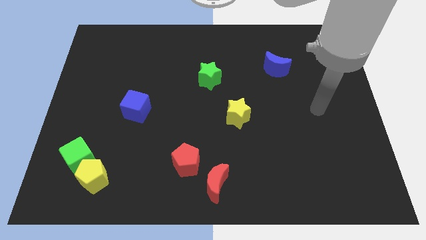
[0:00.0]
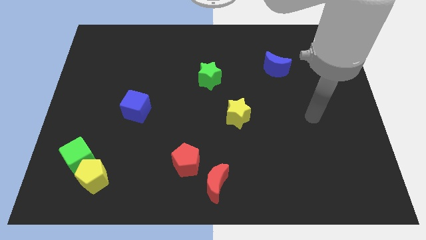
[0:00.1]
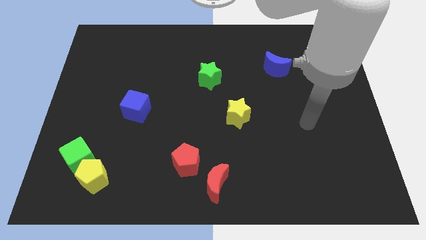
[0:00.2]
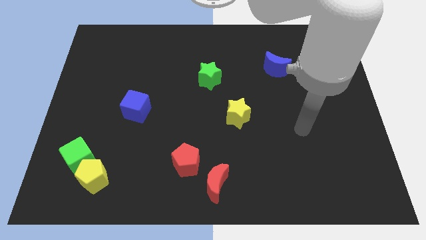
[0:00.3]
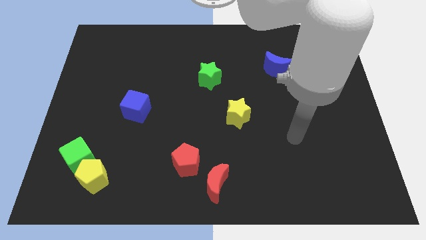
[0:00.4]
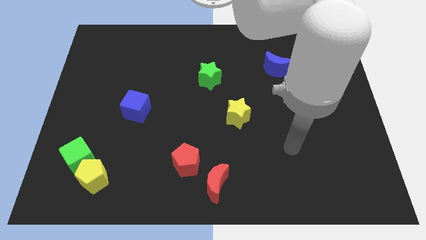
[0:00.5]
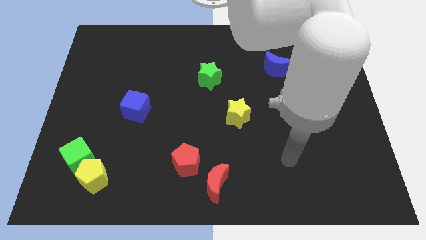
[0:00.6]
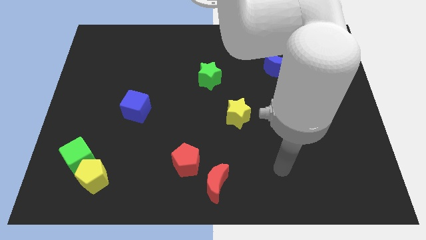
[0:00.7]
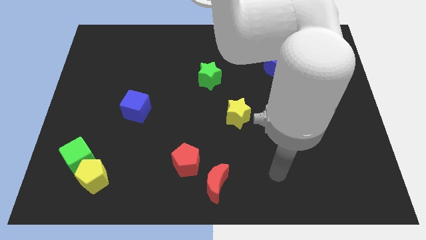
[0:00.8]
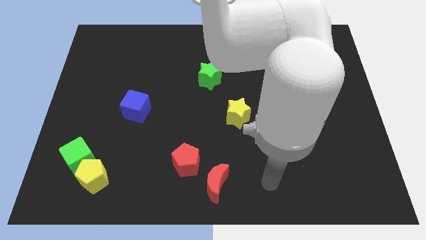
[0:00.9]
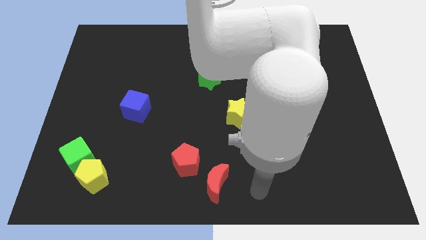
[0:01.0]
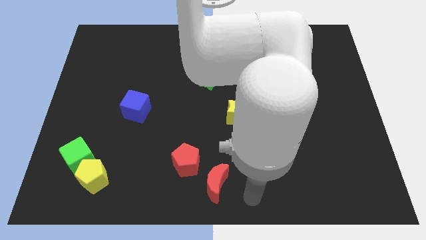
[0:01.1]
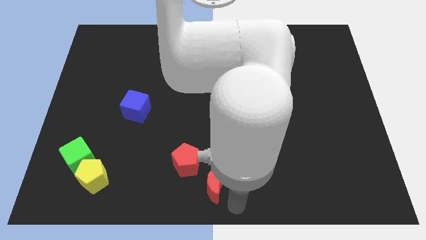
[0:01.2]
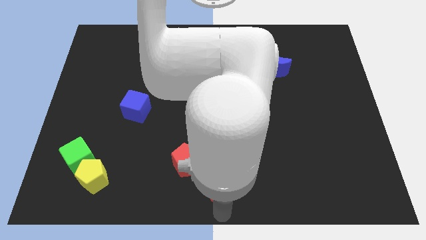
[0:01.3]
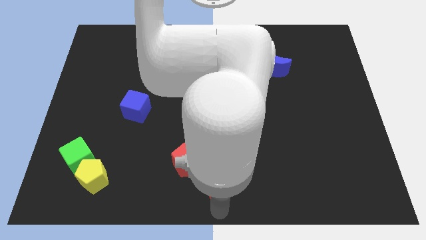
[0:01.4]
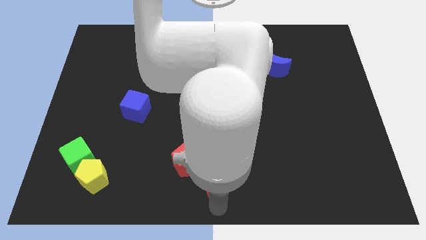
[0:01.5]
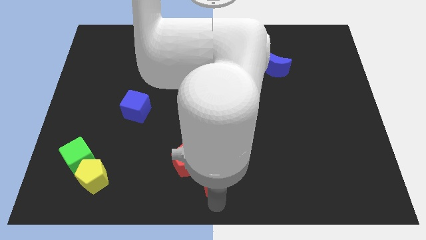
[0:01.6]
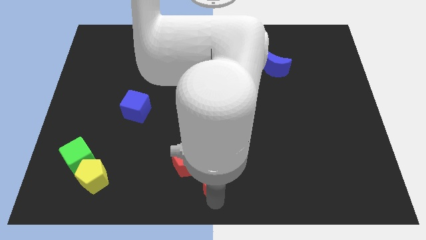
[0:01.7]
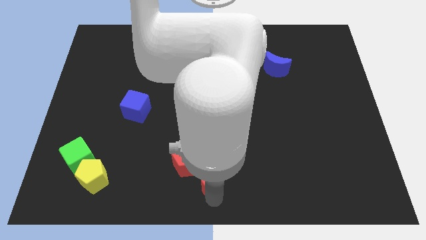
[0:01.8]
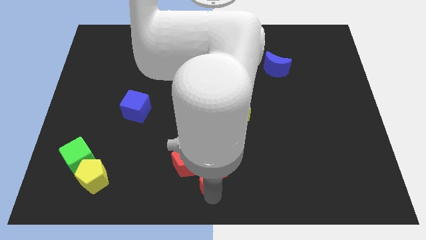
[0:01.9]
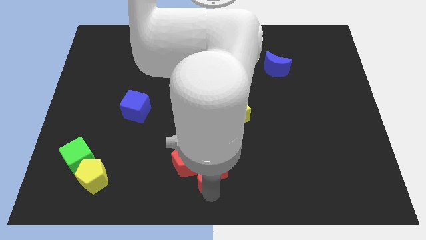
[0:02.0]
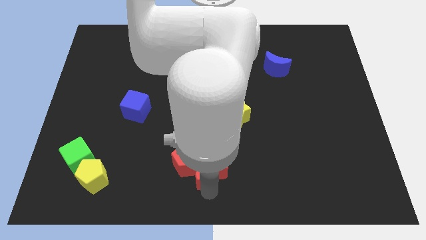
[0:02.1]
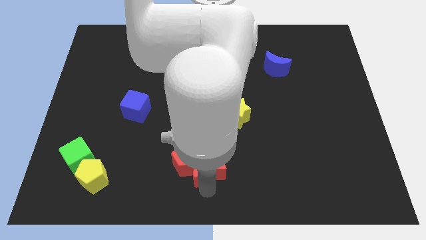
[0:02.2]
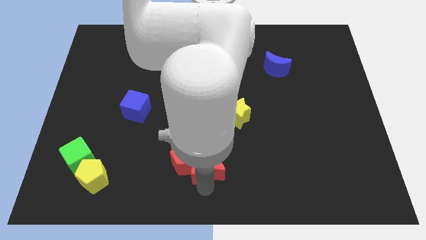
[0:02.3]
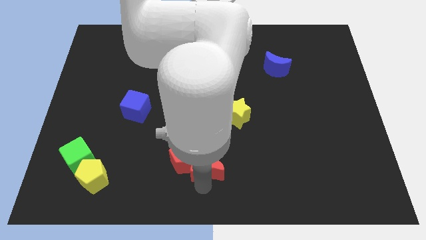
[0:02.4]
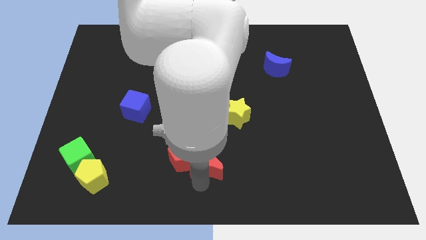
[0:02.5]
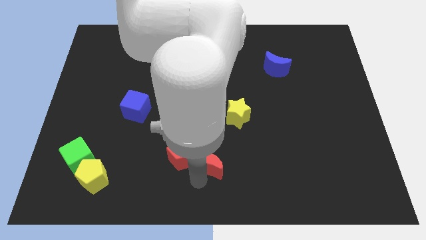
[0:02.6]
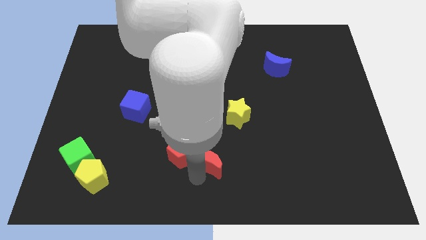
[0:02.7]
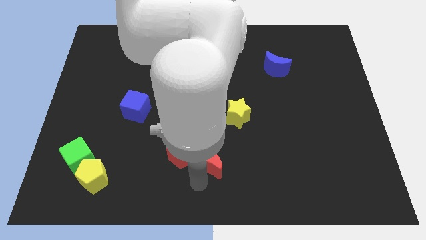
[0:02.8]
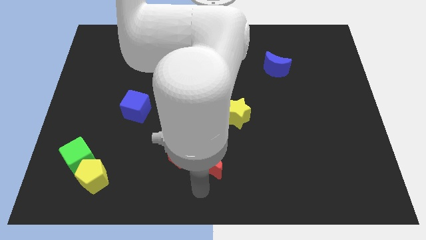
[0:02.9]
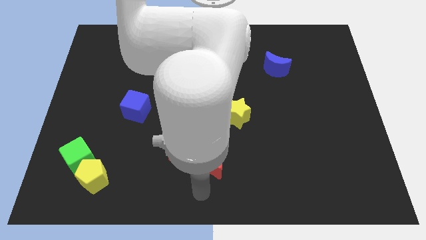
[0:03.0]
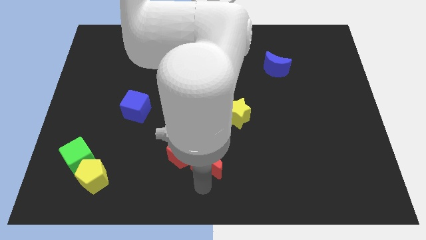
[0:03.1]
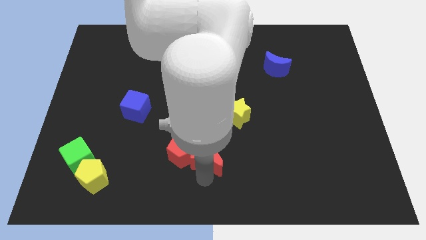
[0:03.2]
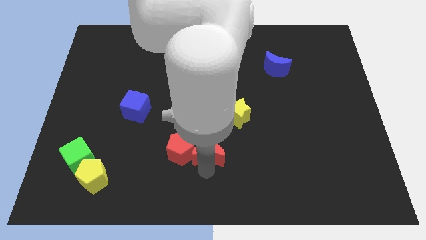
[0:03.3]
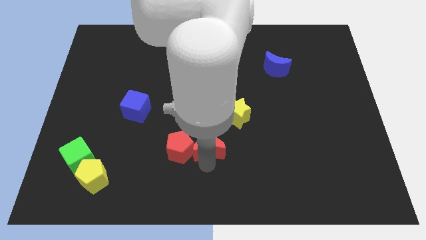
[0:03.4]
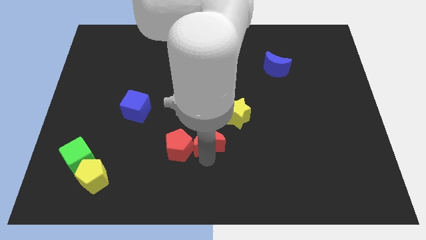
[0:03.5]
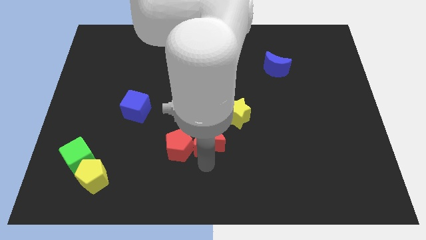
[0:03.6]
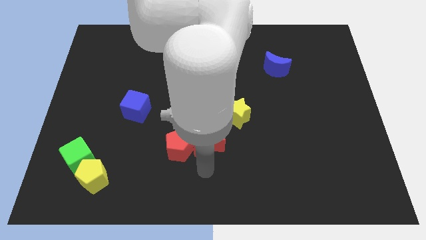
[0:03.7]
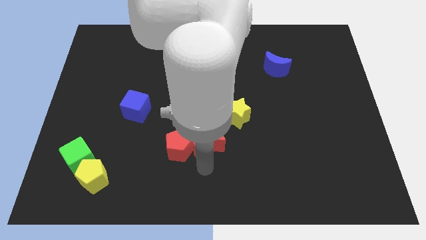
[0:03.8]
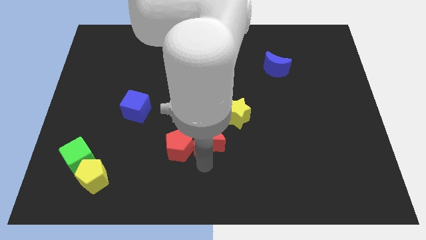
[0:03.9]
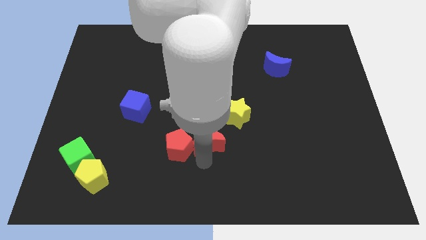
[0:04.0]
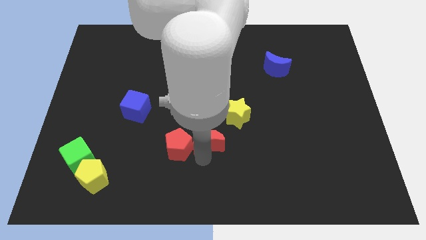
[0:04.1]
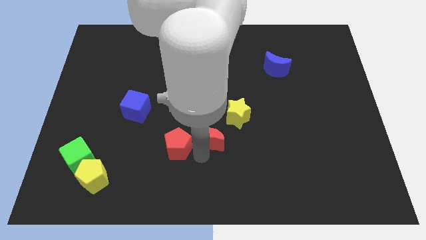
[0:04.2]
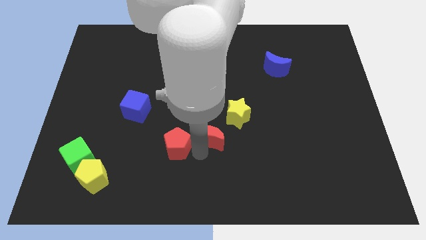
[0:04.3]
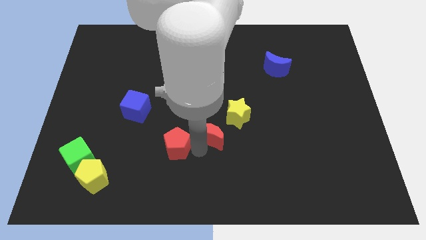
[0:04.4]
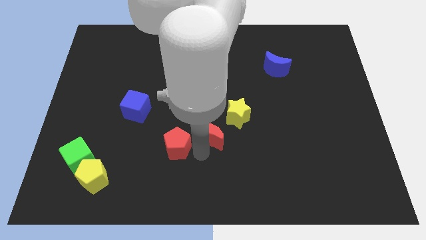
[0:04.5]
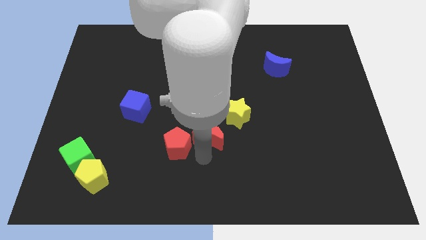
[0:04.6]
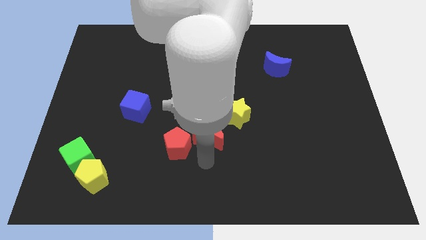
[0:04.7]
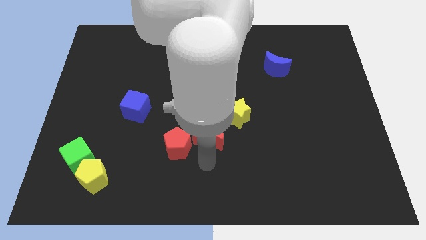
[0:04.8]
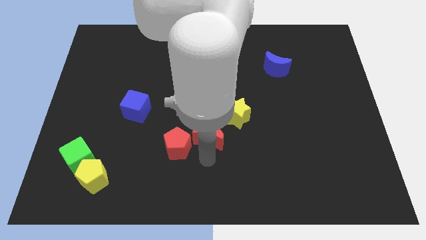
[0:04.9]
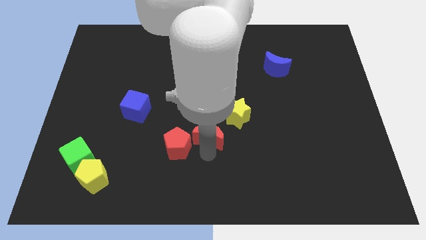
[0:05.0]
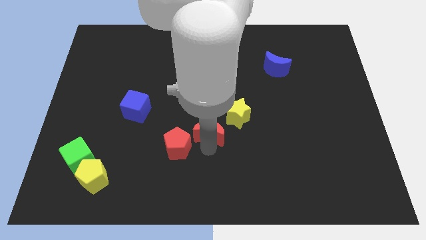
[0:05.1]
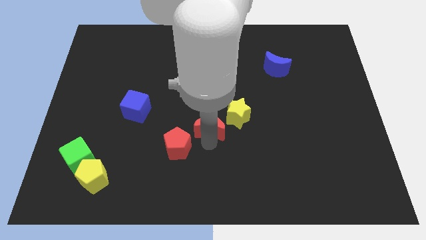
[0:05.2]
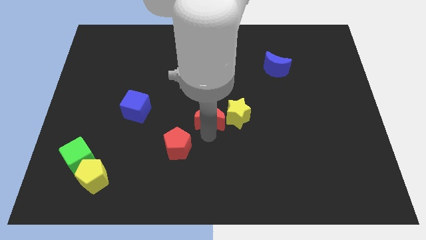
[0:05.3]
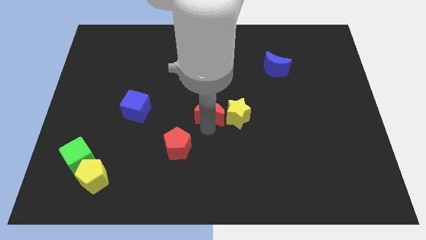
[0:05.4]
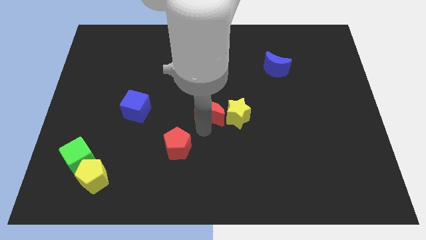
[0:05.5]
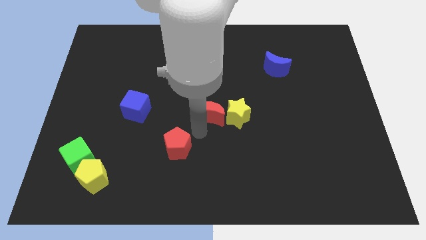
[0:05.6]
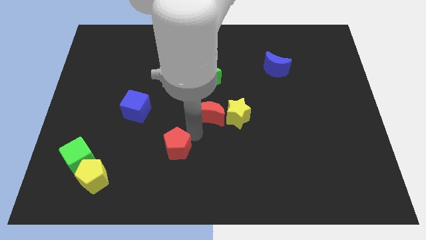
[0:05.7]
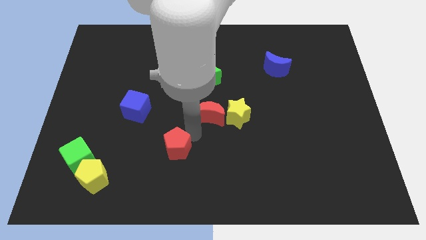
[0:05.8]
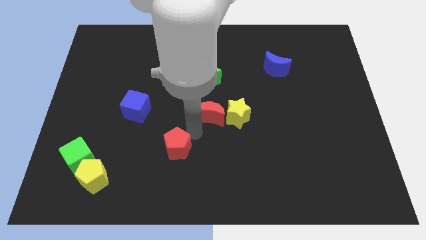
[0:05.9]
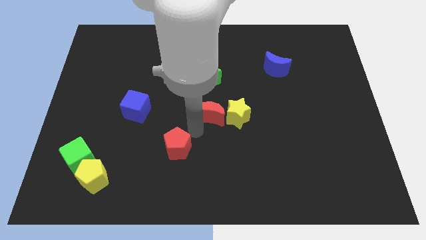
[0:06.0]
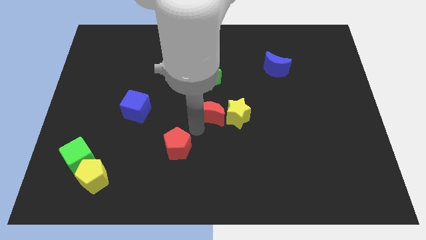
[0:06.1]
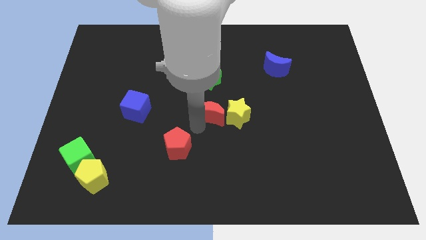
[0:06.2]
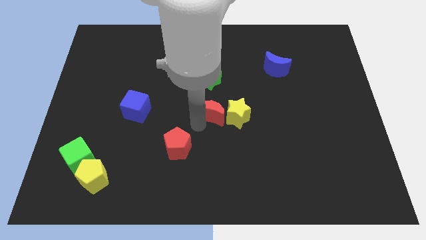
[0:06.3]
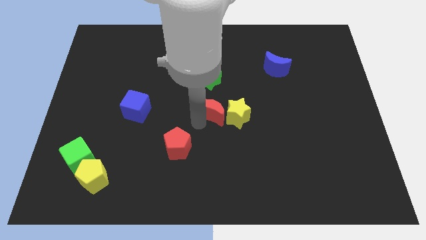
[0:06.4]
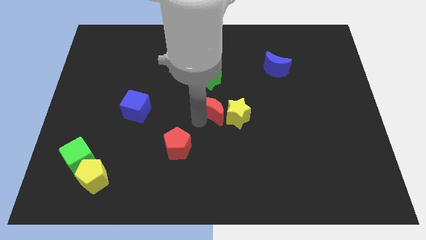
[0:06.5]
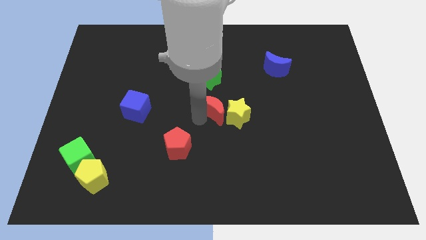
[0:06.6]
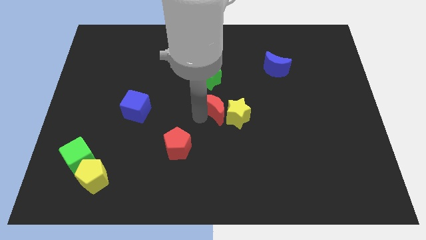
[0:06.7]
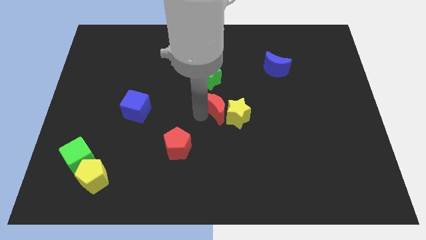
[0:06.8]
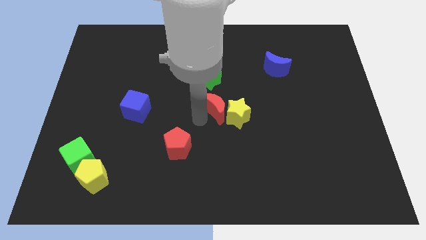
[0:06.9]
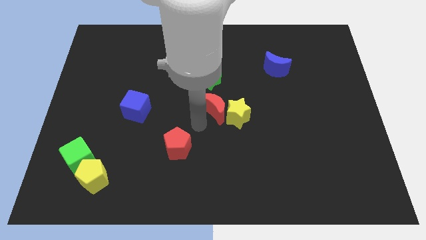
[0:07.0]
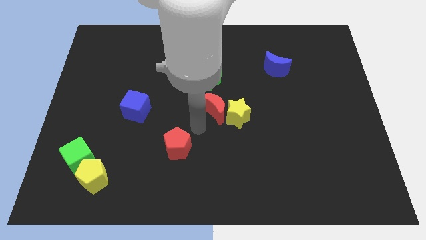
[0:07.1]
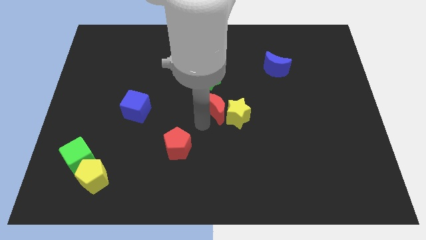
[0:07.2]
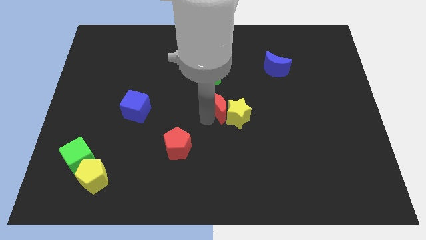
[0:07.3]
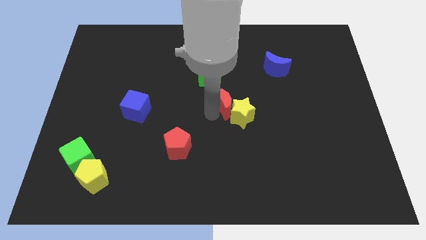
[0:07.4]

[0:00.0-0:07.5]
move the red moon to the bottom right of the green star

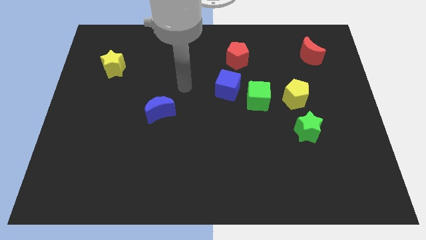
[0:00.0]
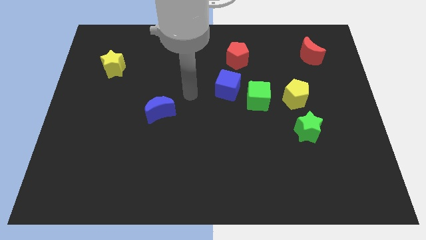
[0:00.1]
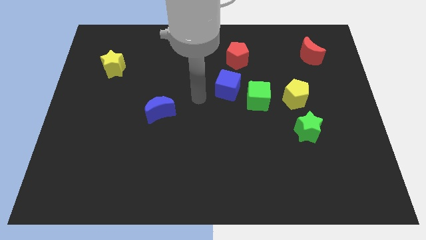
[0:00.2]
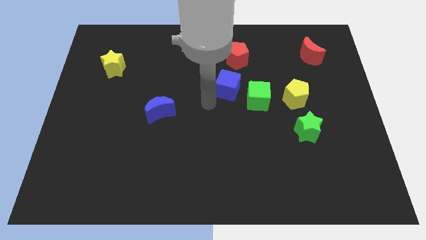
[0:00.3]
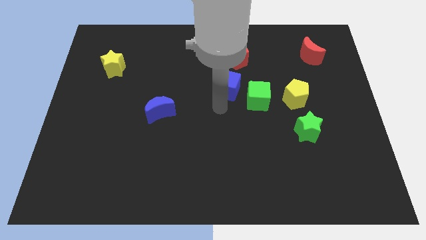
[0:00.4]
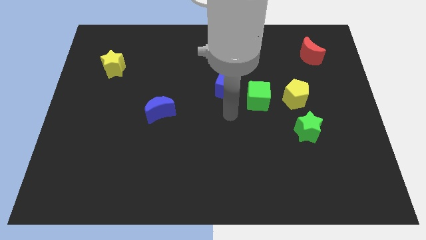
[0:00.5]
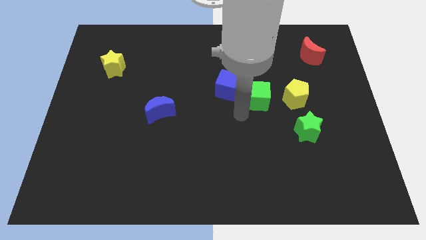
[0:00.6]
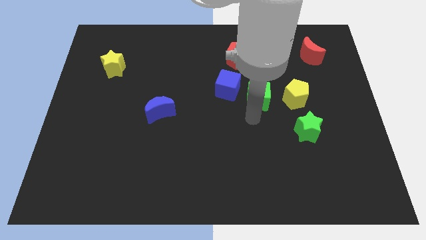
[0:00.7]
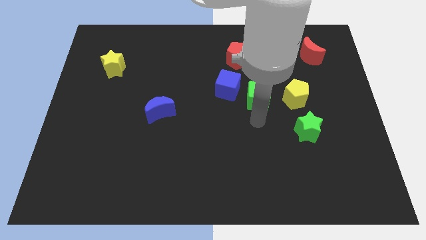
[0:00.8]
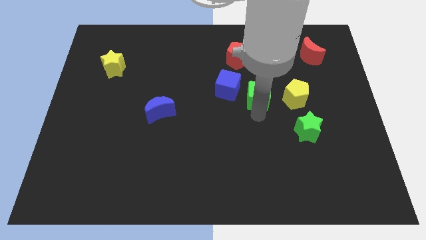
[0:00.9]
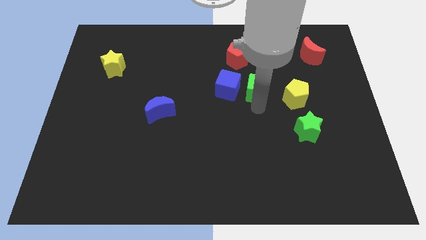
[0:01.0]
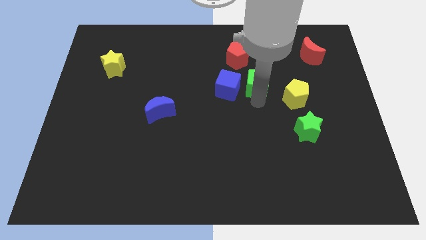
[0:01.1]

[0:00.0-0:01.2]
push the green cube diagonally down and to the right of the red pentagon
